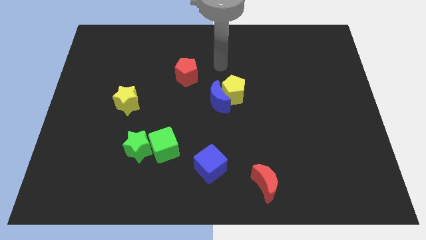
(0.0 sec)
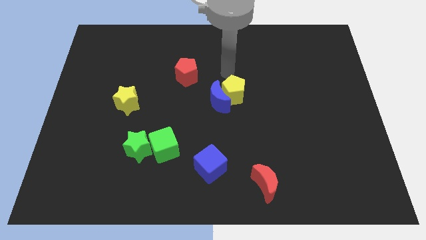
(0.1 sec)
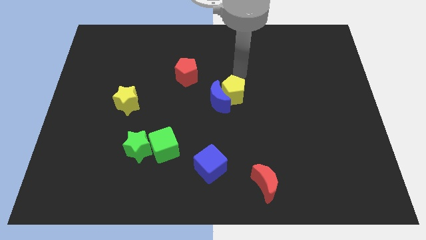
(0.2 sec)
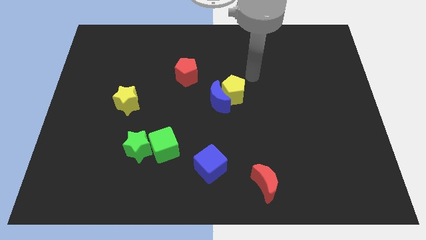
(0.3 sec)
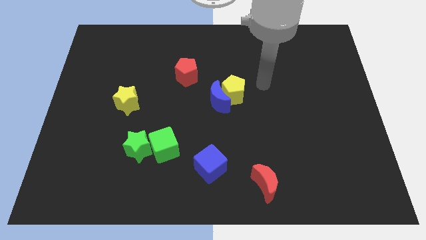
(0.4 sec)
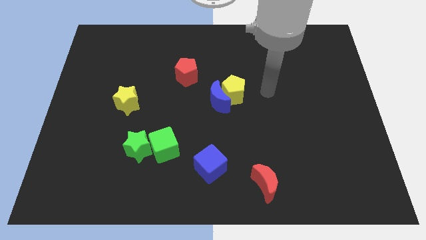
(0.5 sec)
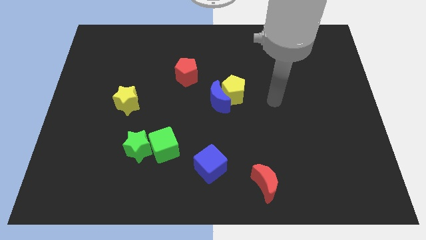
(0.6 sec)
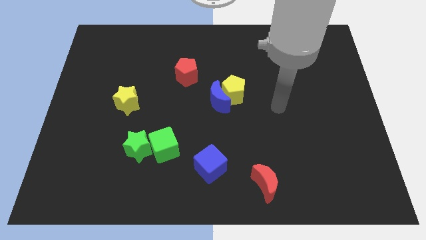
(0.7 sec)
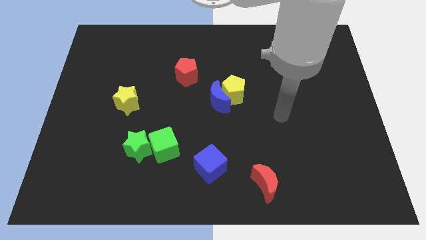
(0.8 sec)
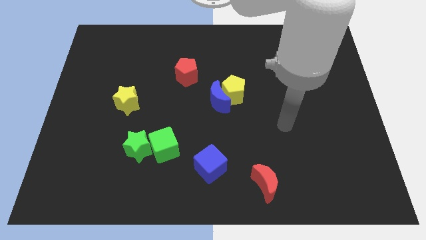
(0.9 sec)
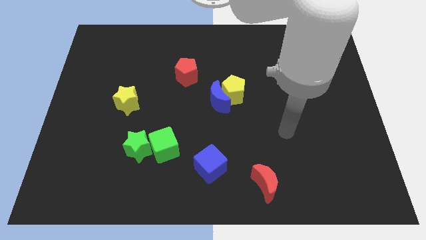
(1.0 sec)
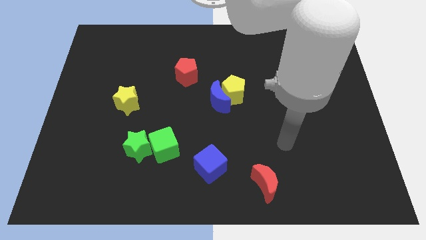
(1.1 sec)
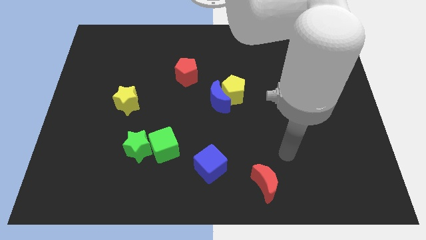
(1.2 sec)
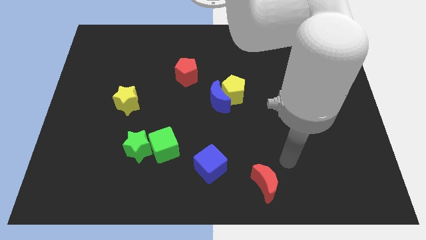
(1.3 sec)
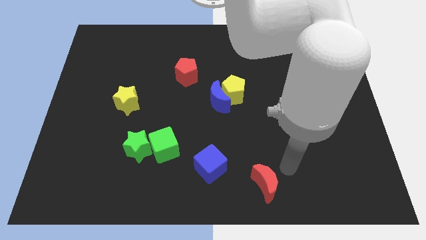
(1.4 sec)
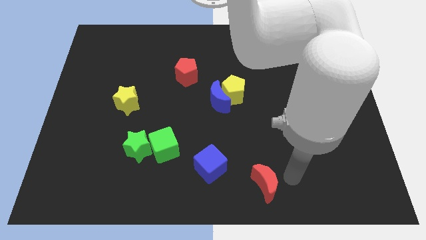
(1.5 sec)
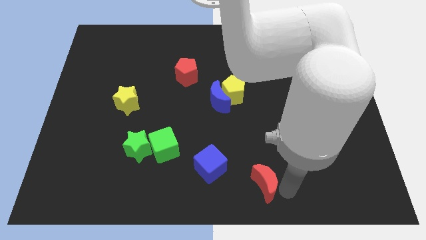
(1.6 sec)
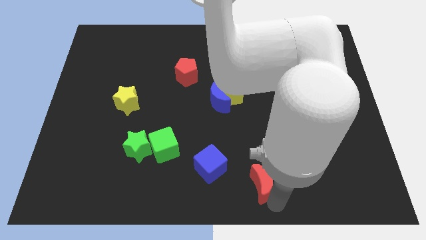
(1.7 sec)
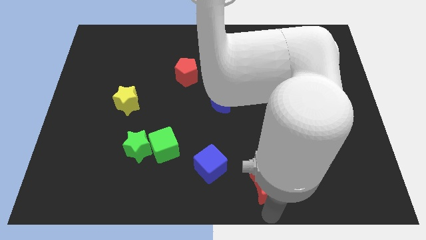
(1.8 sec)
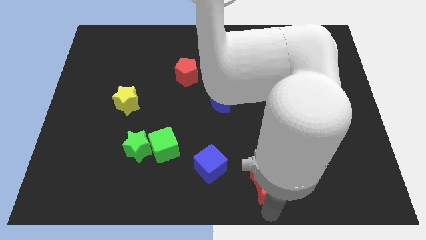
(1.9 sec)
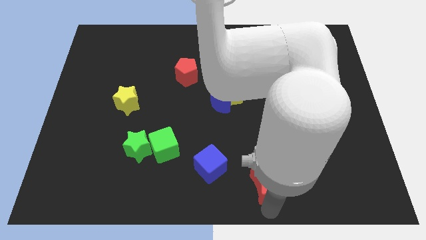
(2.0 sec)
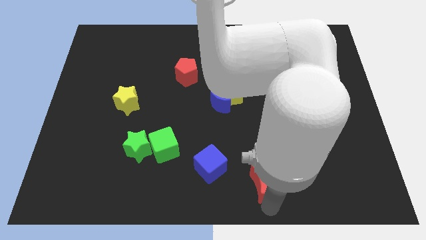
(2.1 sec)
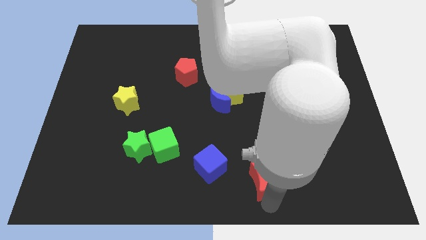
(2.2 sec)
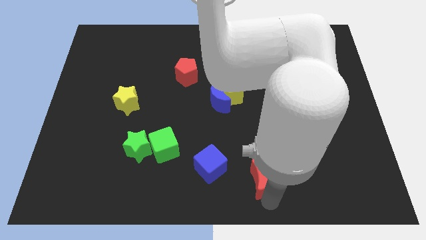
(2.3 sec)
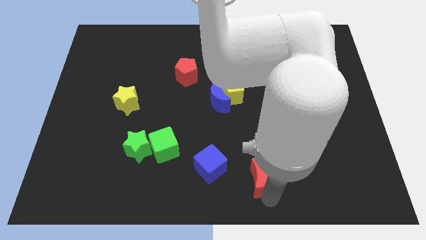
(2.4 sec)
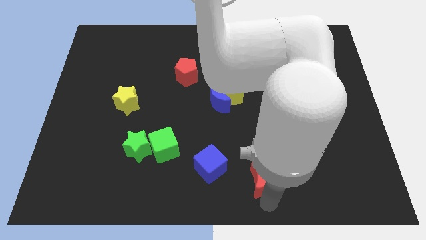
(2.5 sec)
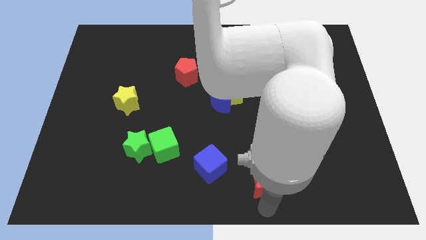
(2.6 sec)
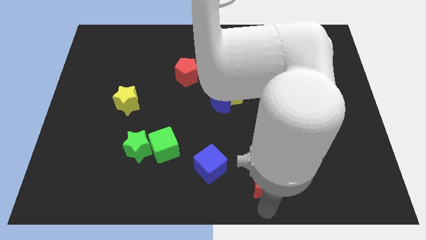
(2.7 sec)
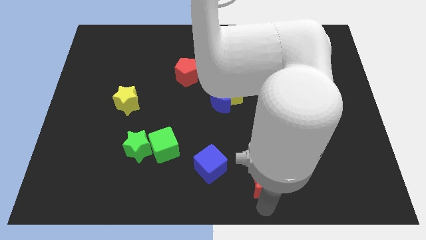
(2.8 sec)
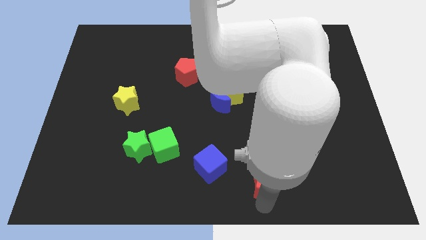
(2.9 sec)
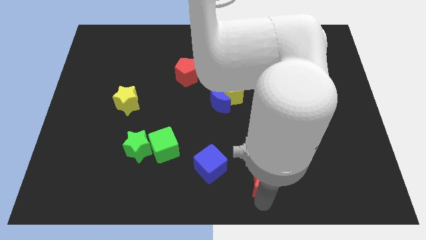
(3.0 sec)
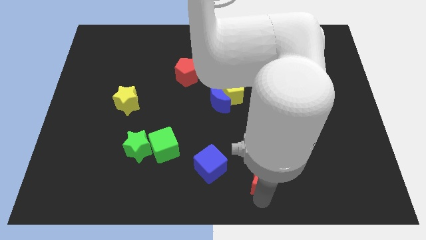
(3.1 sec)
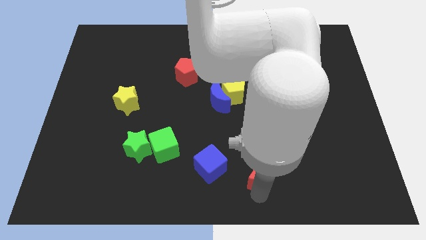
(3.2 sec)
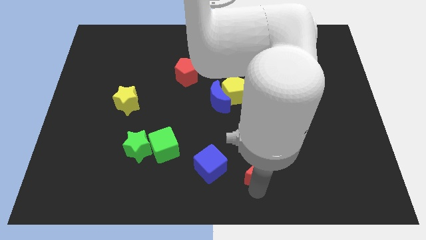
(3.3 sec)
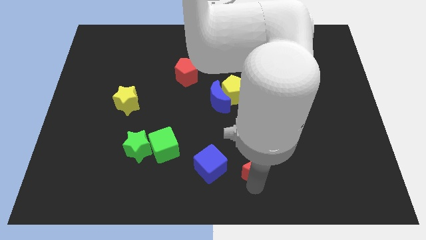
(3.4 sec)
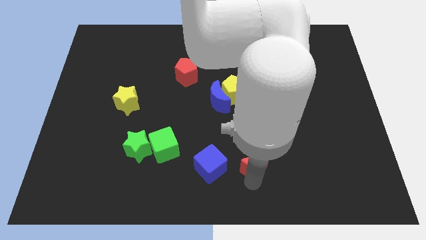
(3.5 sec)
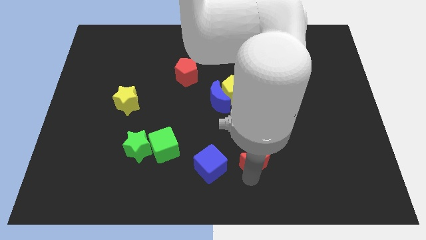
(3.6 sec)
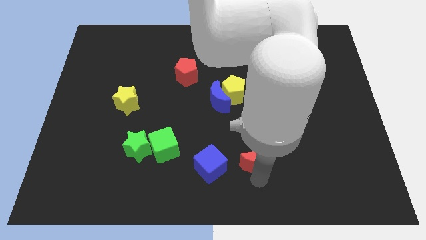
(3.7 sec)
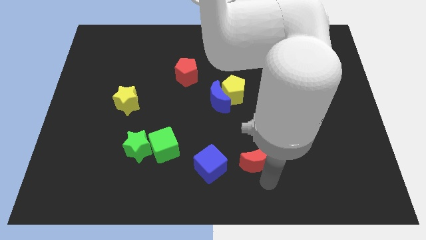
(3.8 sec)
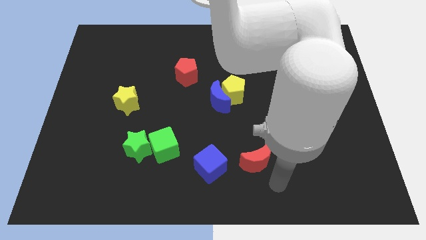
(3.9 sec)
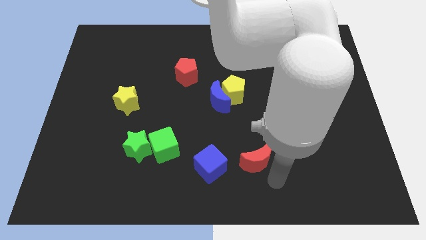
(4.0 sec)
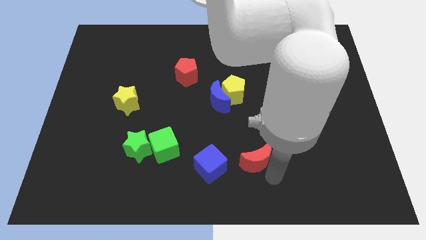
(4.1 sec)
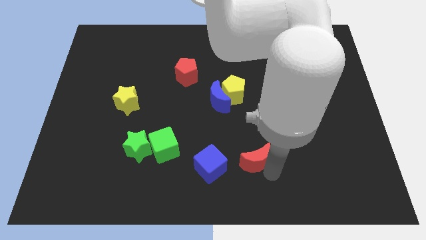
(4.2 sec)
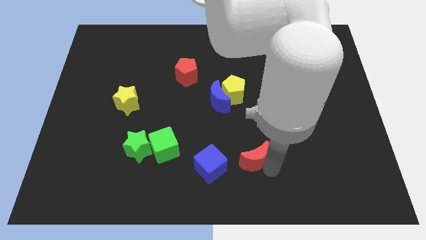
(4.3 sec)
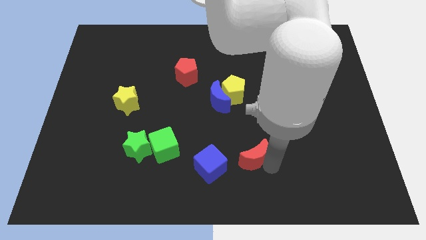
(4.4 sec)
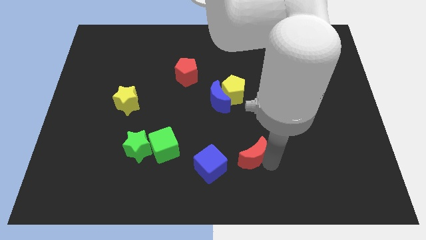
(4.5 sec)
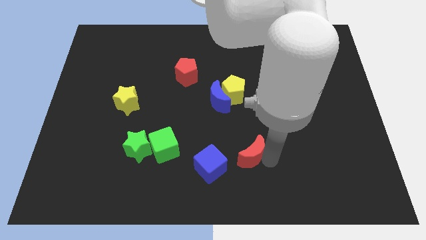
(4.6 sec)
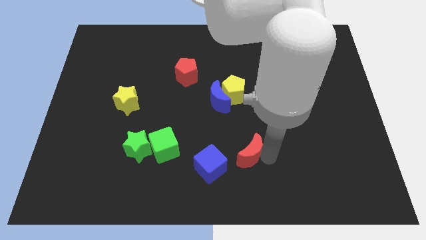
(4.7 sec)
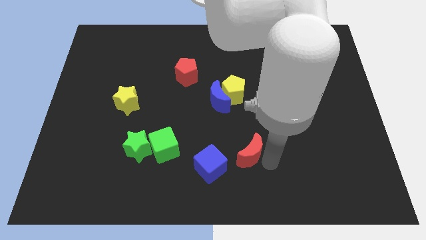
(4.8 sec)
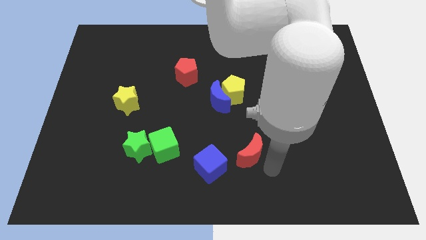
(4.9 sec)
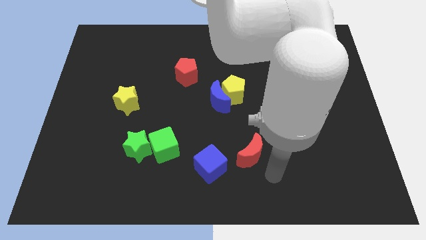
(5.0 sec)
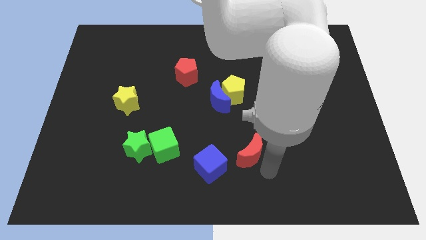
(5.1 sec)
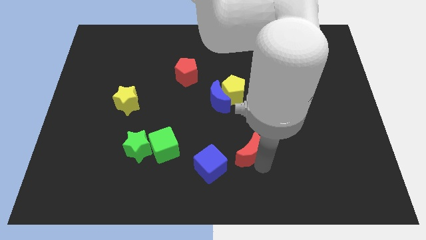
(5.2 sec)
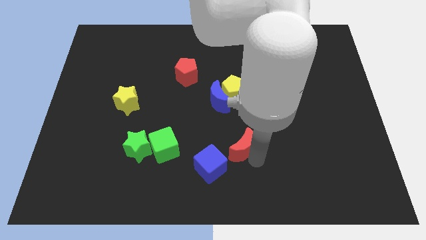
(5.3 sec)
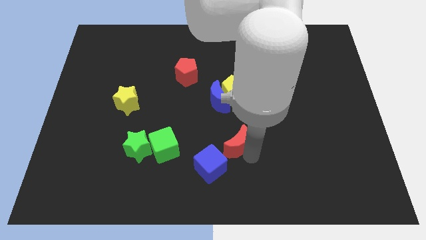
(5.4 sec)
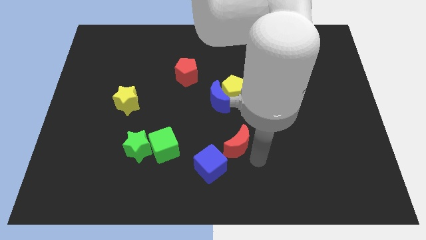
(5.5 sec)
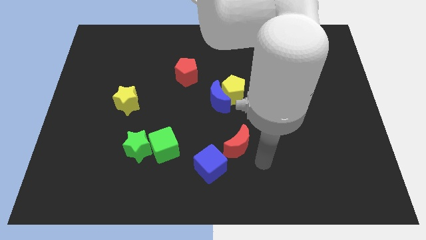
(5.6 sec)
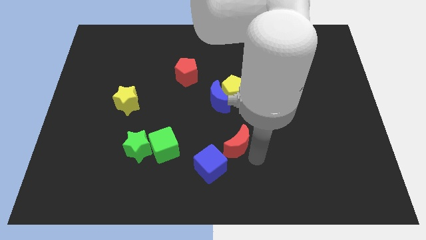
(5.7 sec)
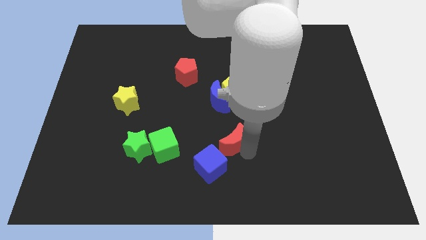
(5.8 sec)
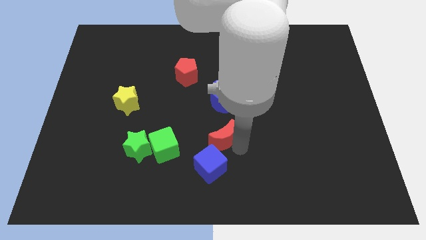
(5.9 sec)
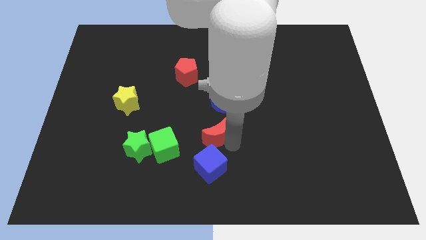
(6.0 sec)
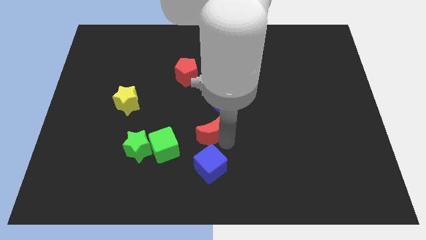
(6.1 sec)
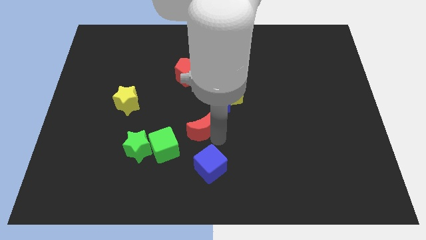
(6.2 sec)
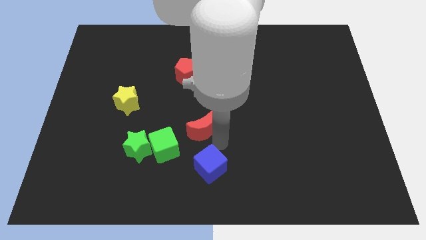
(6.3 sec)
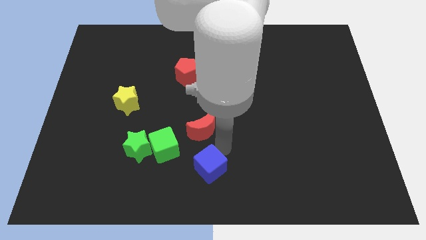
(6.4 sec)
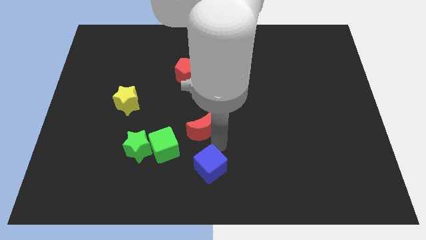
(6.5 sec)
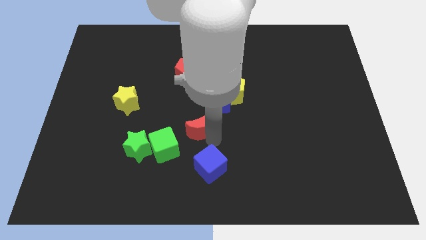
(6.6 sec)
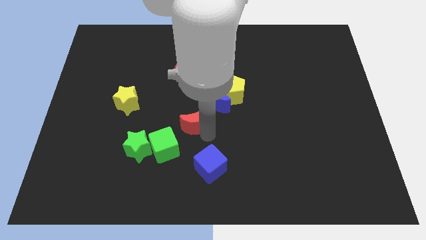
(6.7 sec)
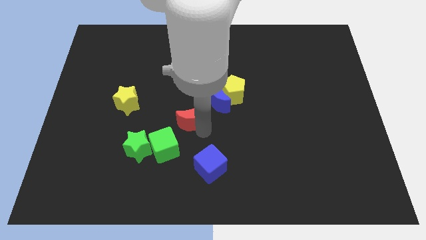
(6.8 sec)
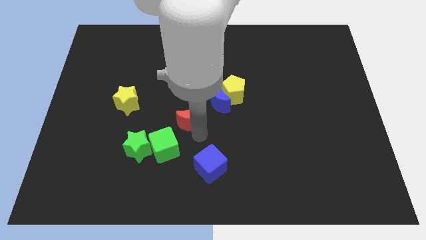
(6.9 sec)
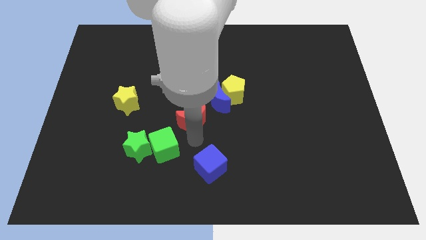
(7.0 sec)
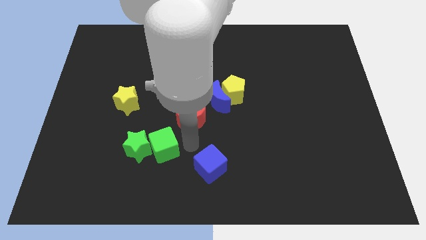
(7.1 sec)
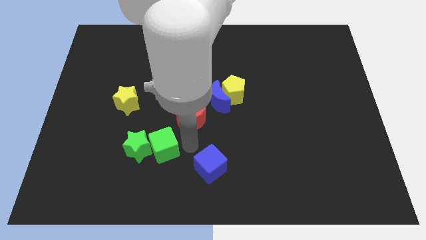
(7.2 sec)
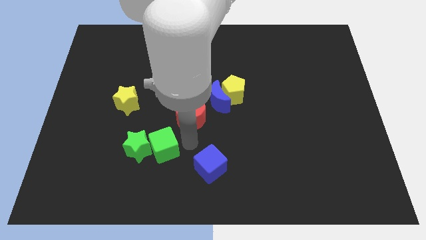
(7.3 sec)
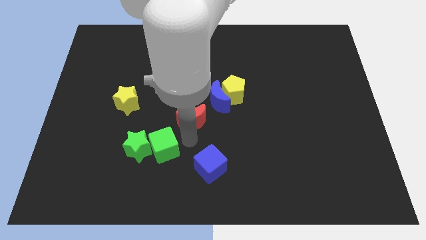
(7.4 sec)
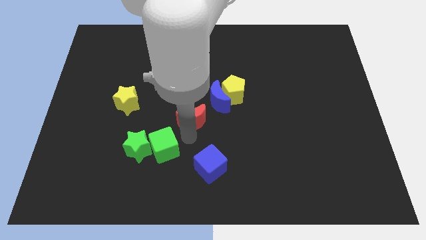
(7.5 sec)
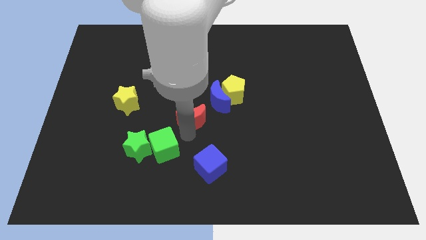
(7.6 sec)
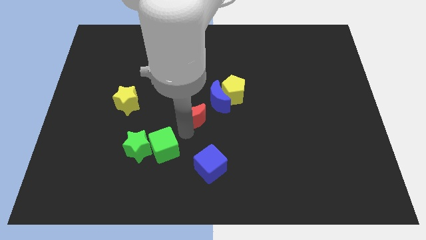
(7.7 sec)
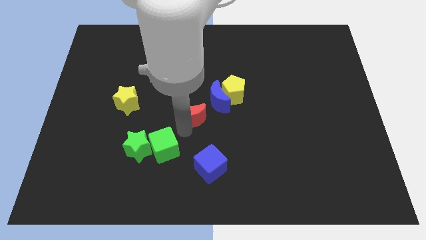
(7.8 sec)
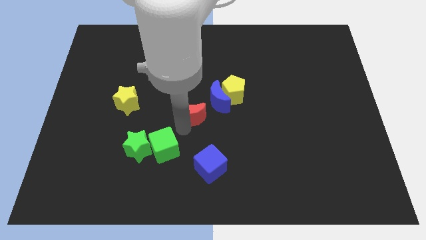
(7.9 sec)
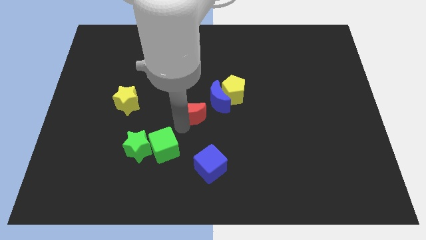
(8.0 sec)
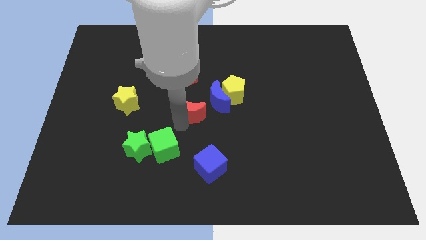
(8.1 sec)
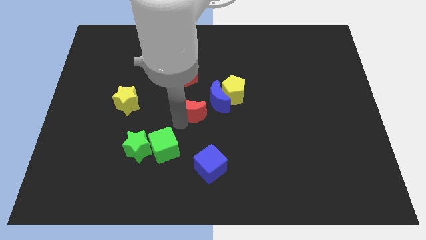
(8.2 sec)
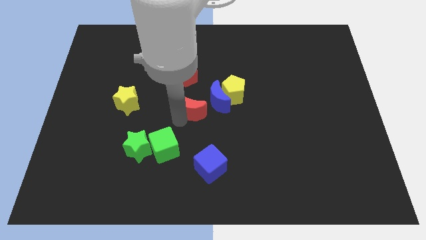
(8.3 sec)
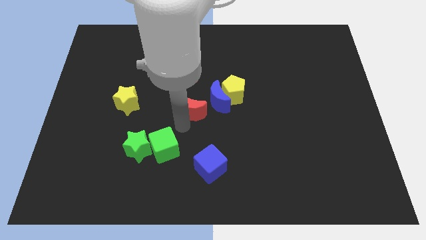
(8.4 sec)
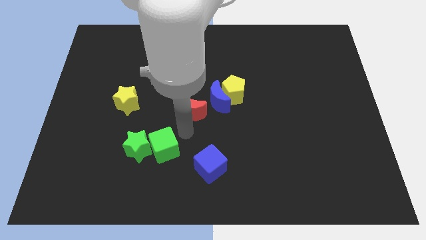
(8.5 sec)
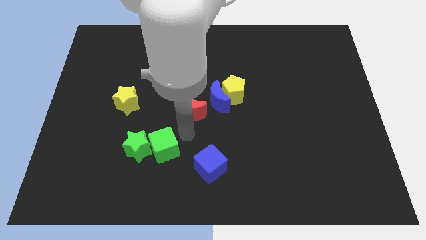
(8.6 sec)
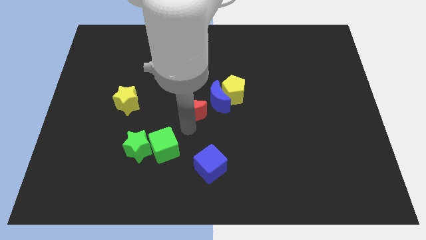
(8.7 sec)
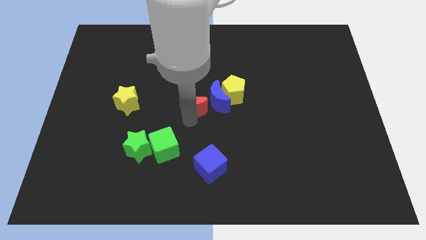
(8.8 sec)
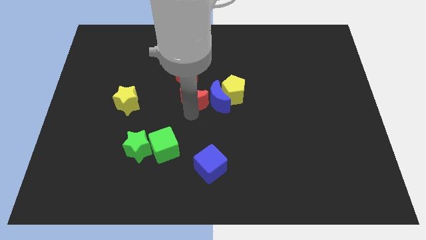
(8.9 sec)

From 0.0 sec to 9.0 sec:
put the red moon diagonally up and to the left of the blue moon
